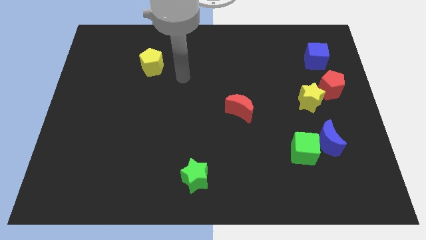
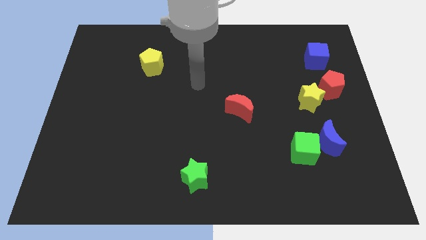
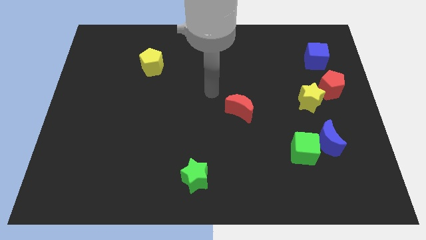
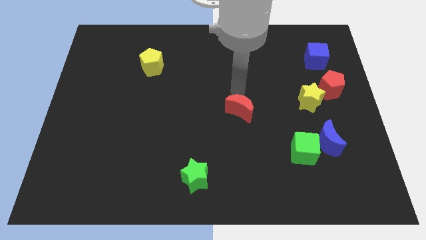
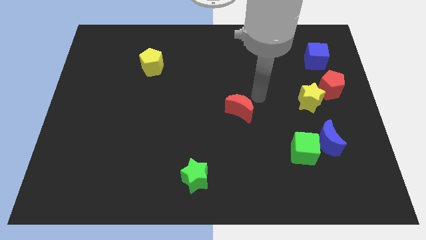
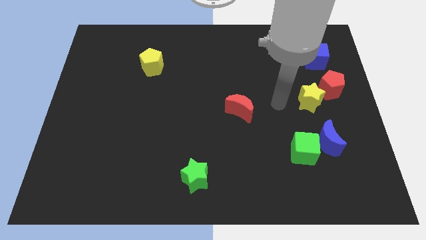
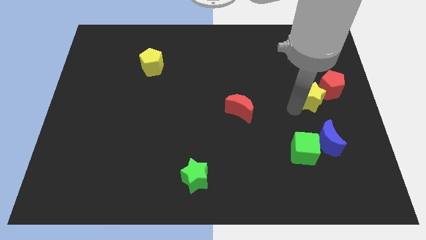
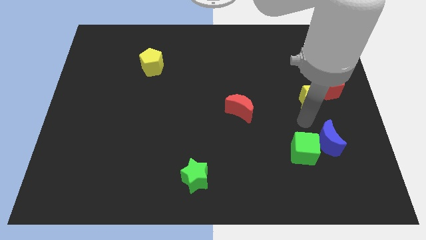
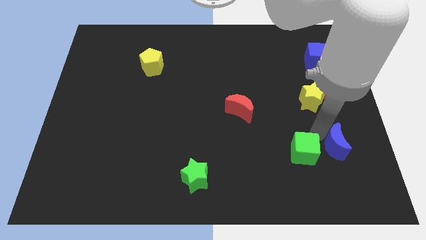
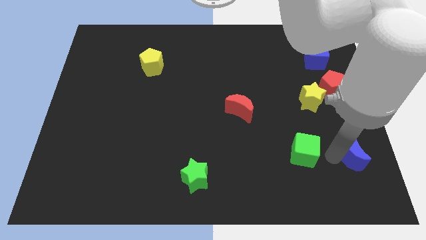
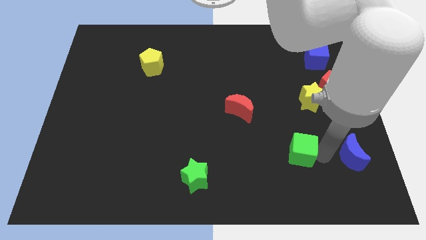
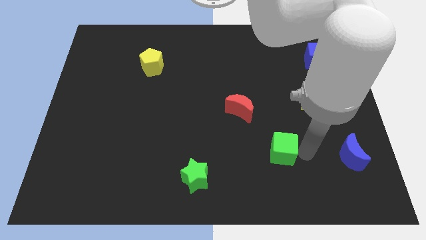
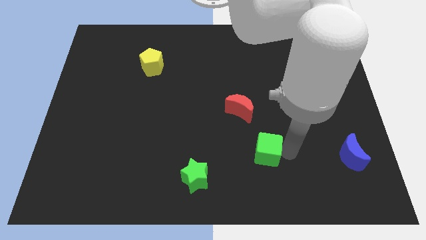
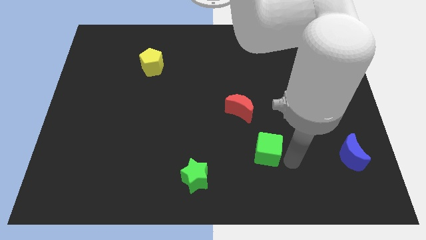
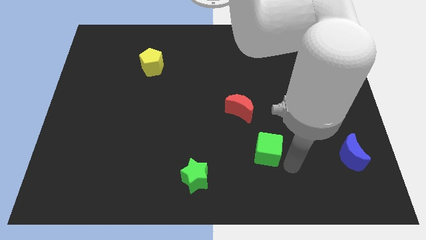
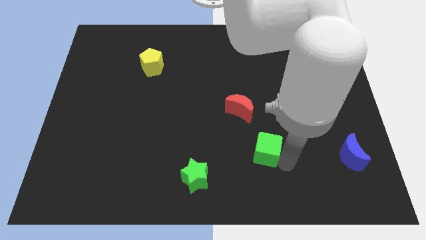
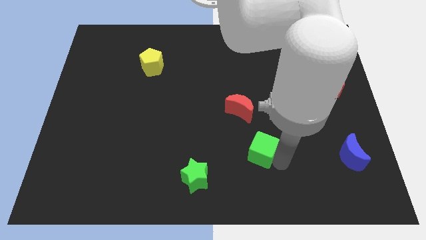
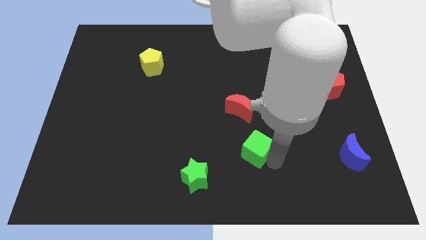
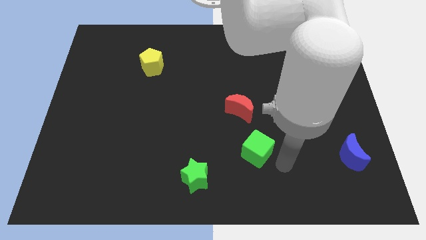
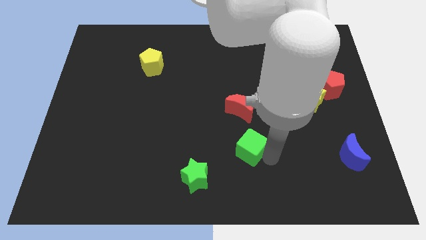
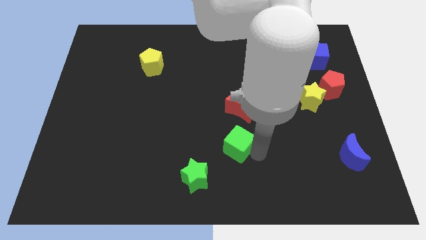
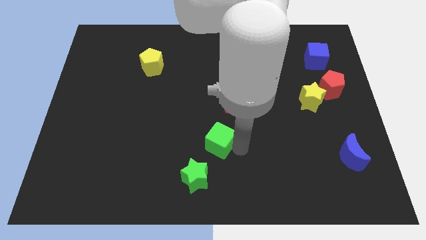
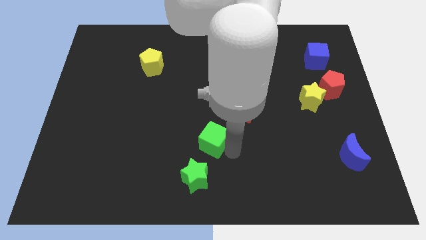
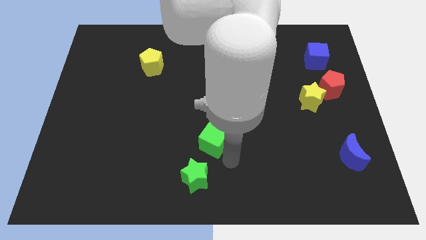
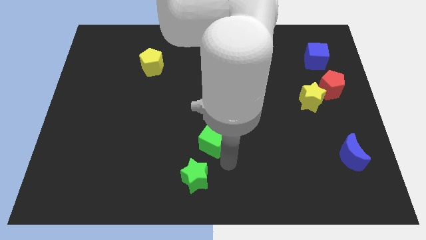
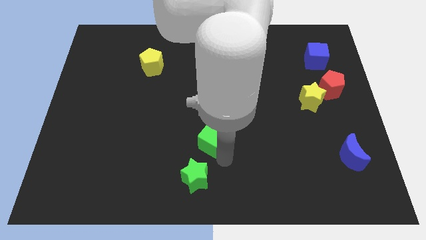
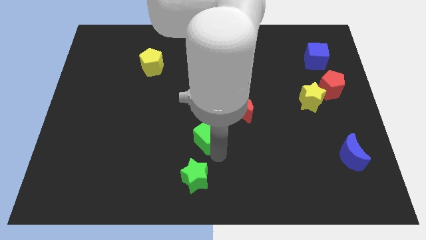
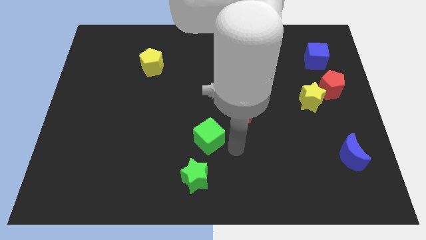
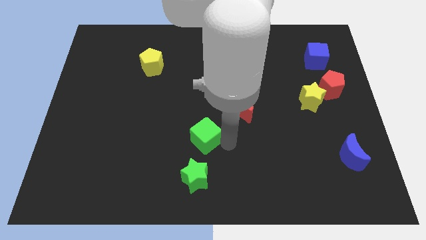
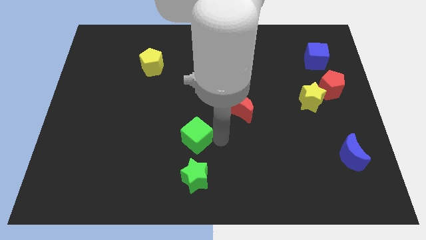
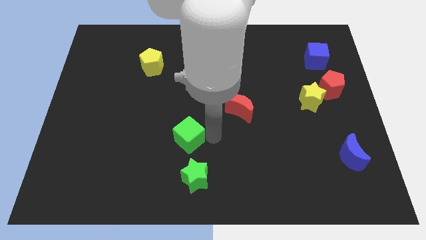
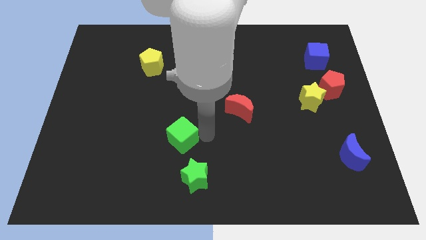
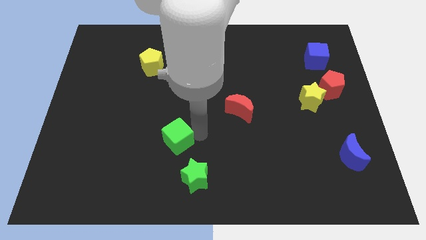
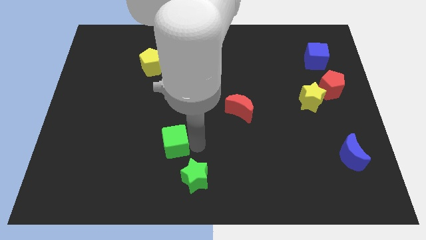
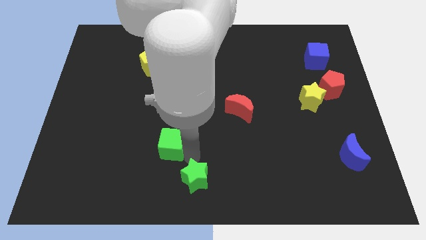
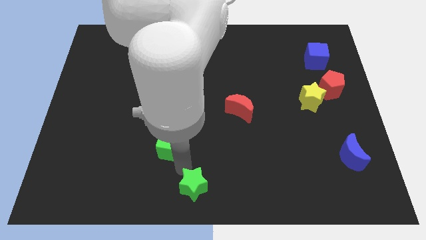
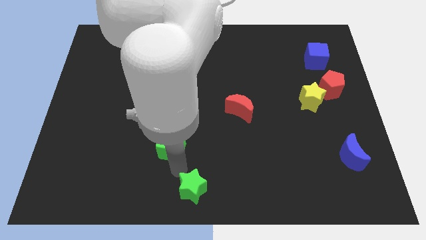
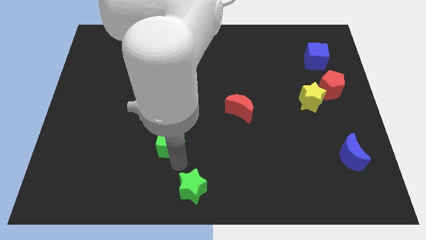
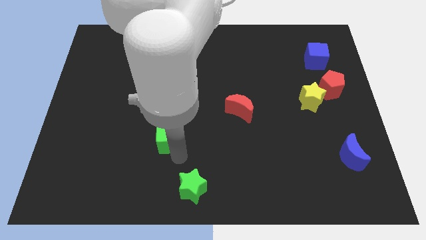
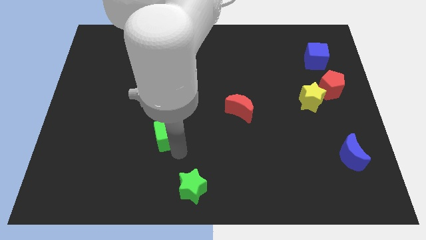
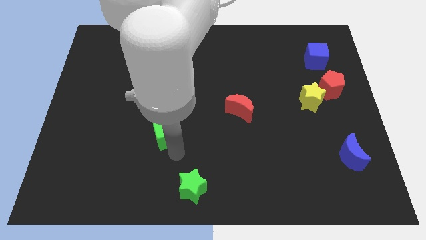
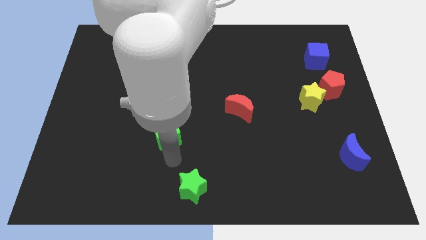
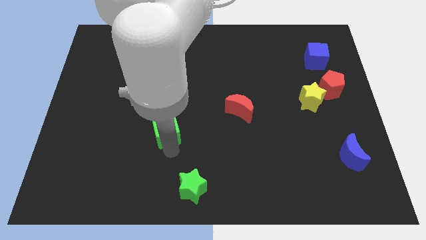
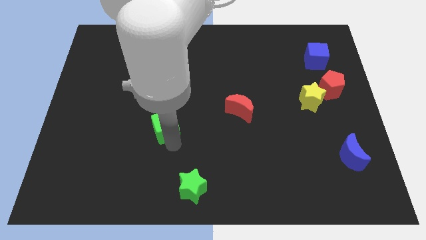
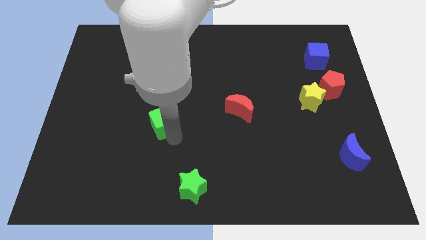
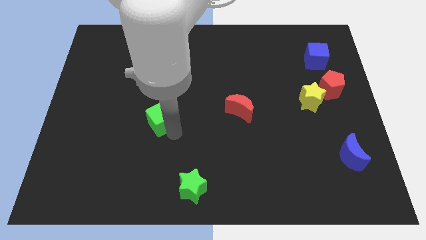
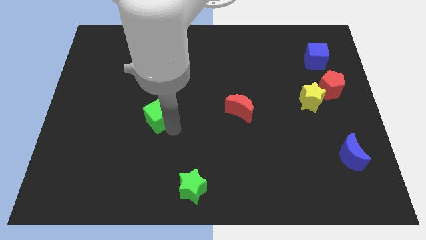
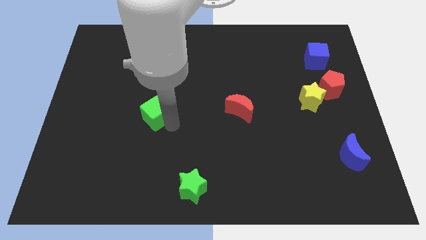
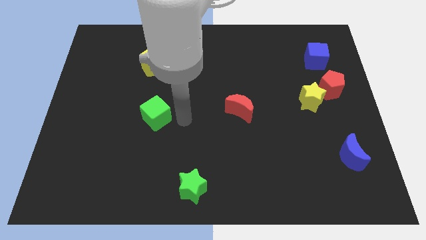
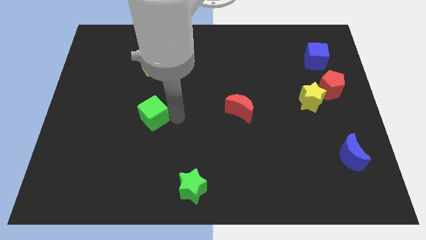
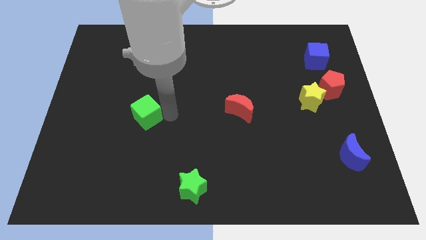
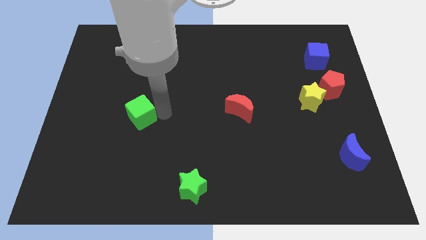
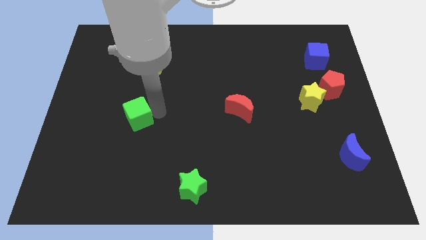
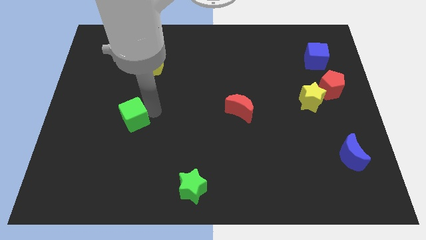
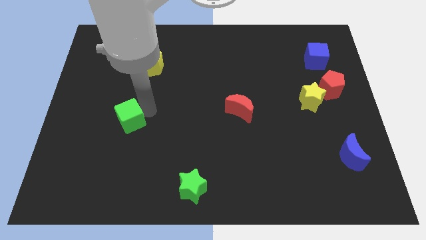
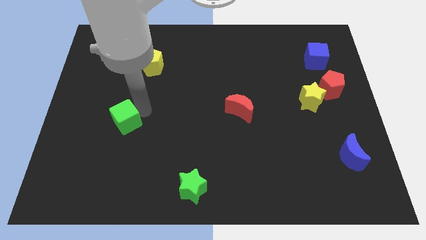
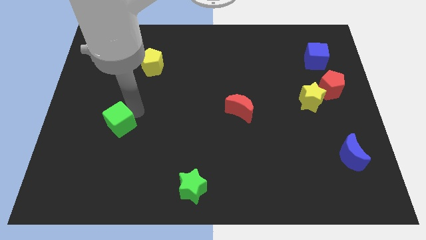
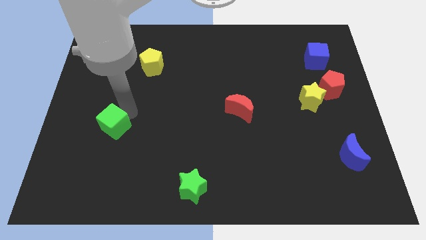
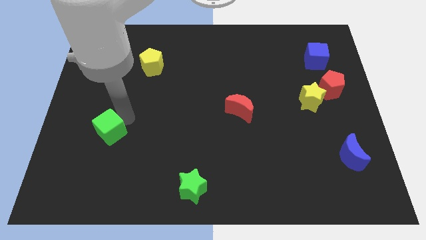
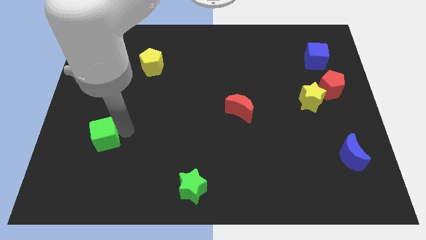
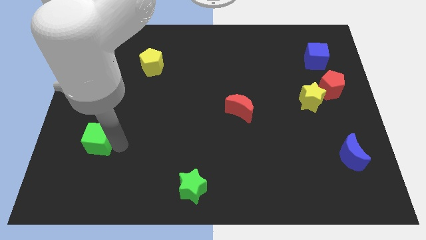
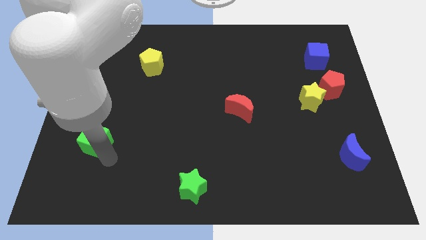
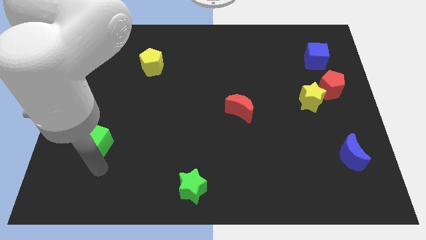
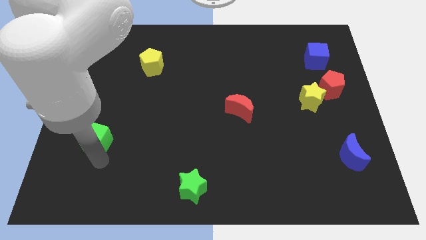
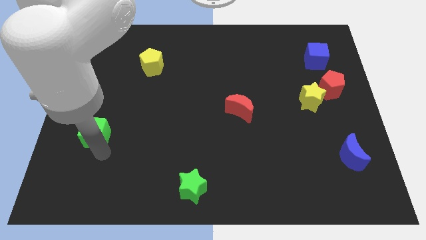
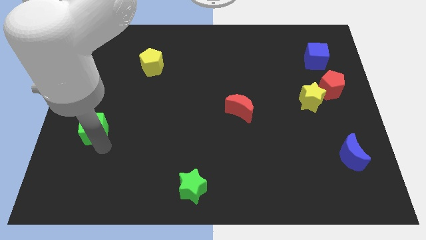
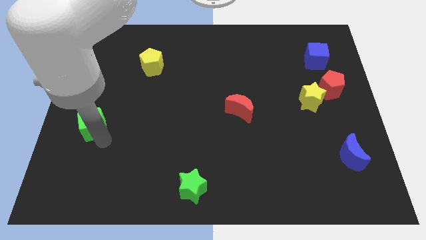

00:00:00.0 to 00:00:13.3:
put the green cube to the center left

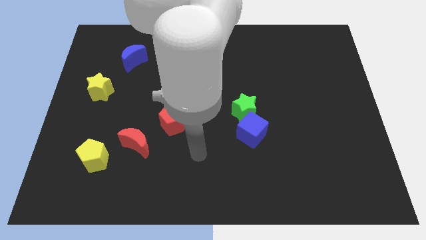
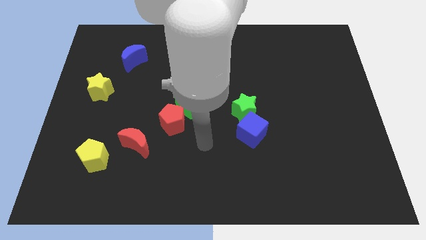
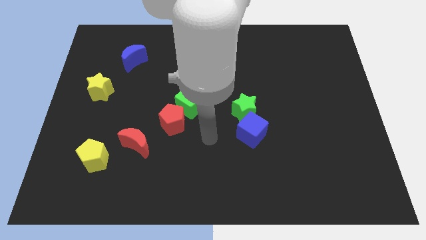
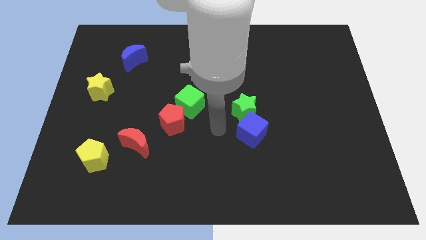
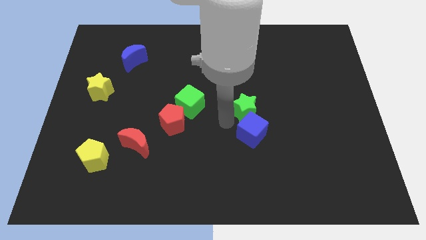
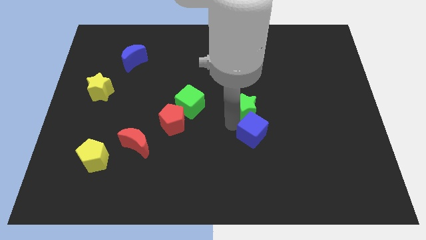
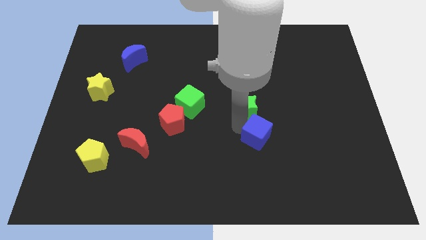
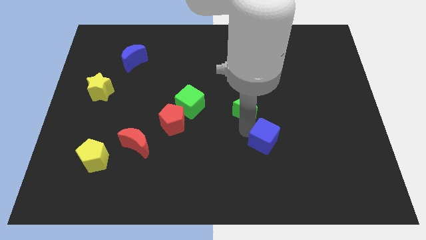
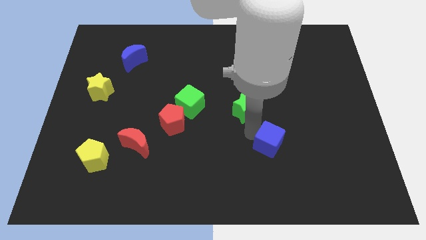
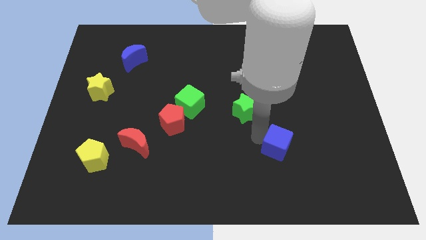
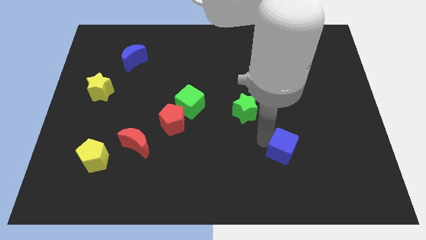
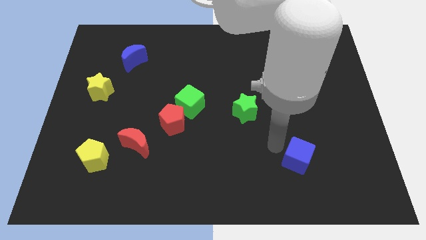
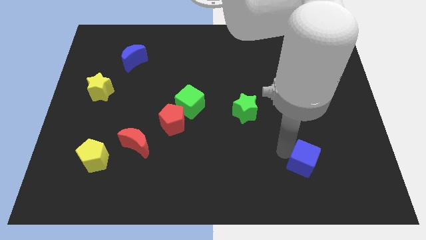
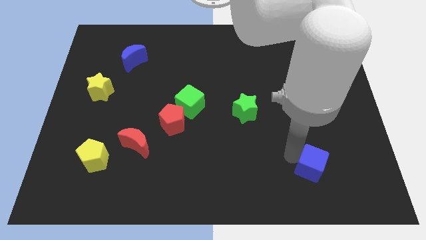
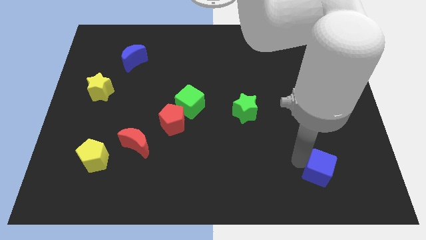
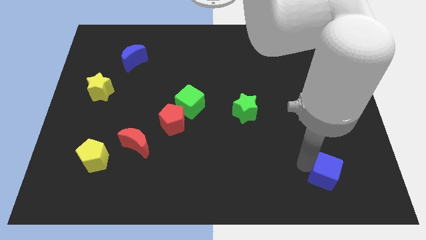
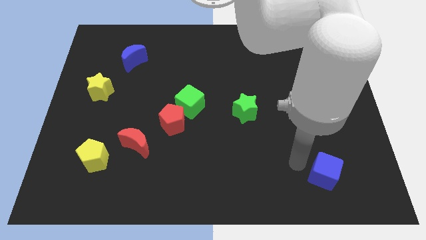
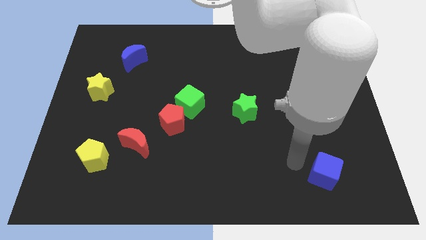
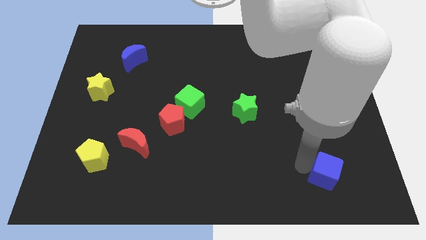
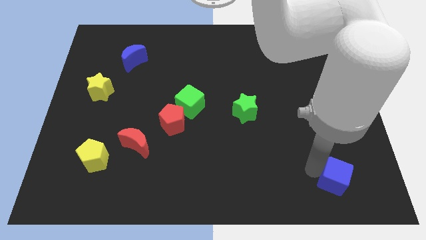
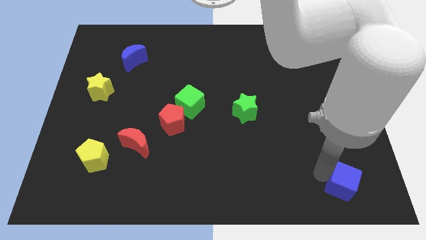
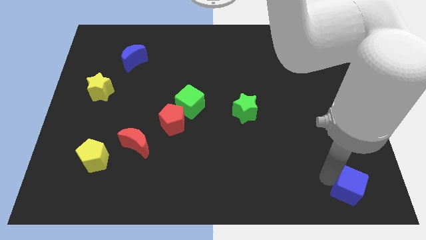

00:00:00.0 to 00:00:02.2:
slide the blue cube to the bottom right corner
